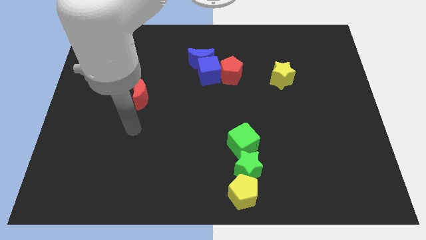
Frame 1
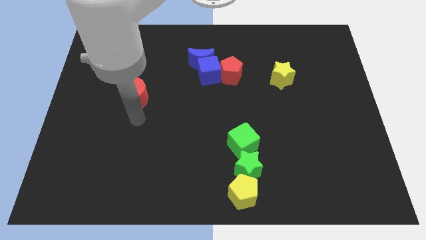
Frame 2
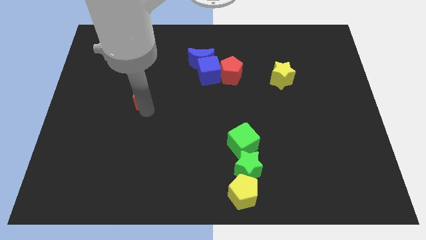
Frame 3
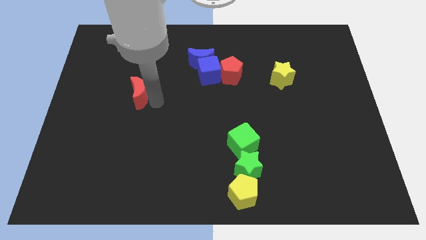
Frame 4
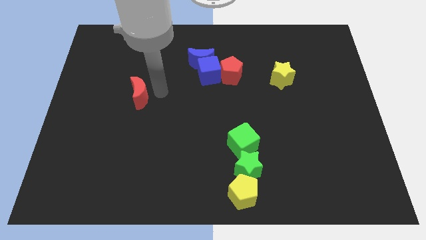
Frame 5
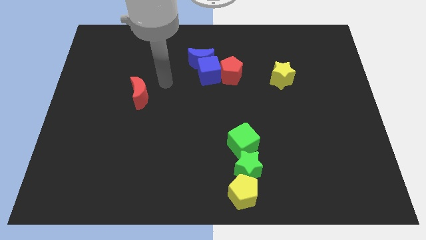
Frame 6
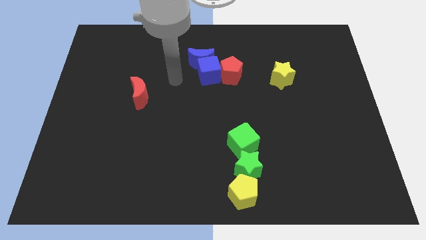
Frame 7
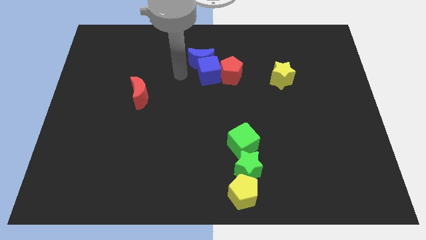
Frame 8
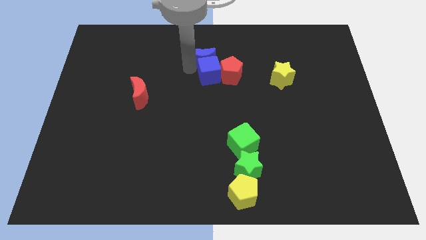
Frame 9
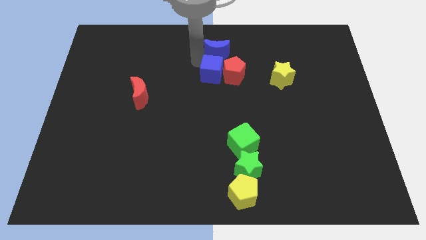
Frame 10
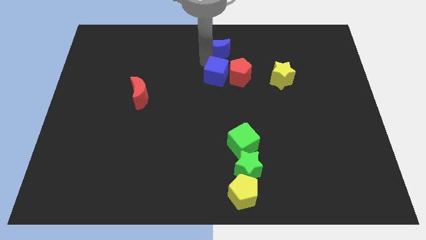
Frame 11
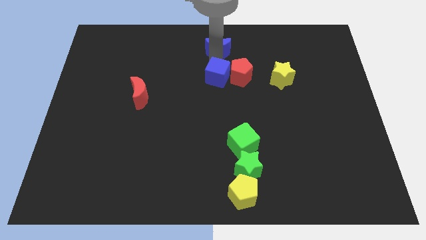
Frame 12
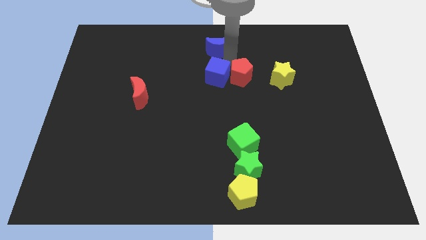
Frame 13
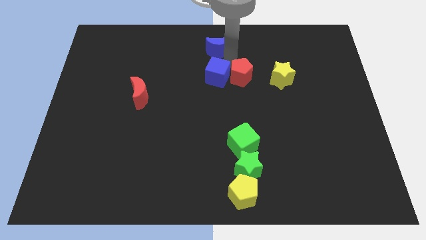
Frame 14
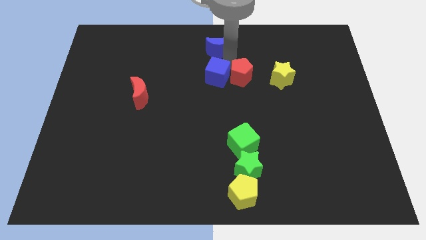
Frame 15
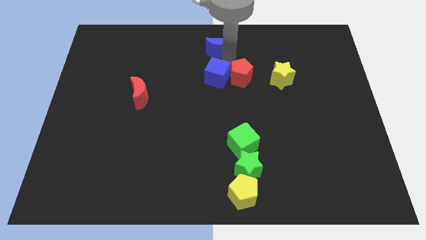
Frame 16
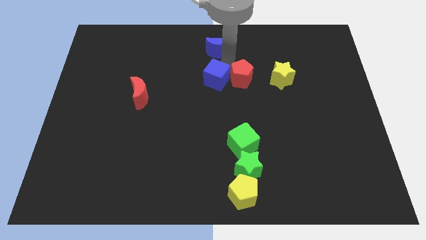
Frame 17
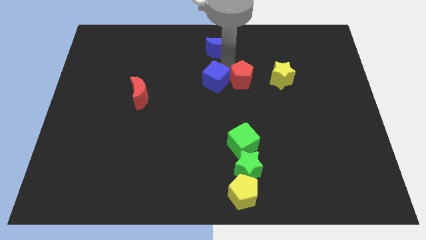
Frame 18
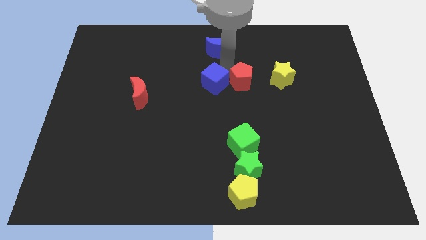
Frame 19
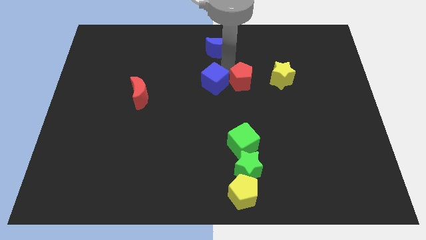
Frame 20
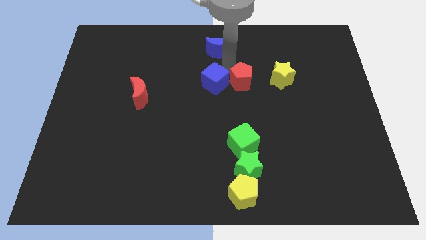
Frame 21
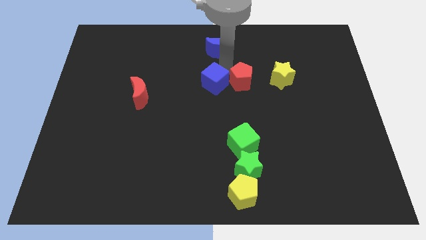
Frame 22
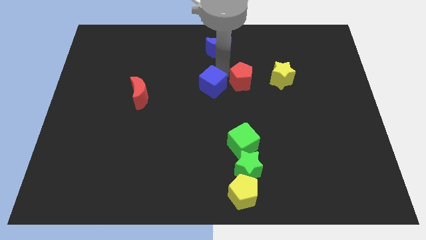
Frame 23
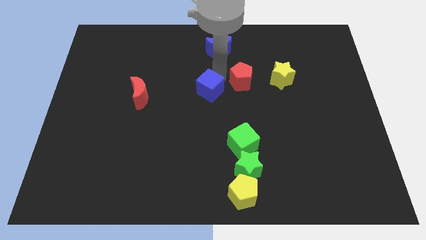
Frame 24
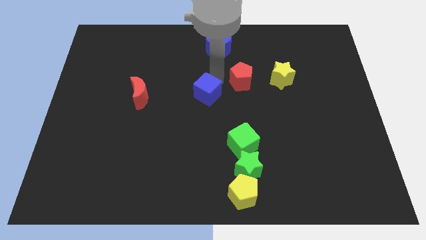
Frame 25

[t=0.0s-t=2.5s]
separate the blue cube from the blue moon and red pentagon

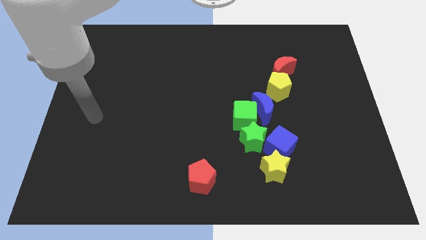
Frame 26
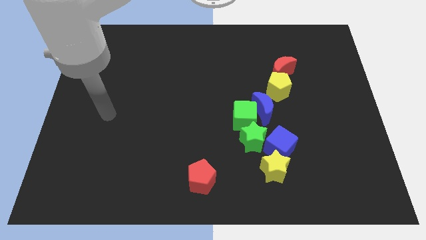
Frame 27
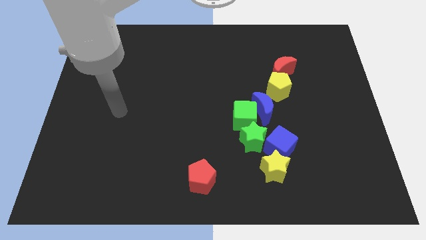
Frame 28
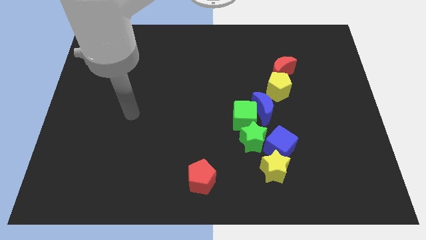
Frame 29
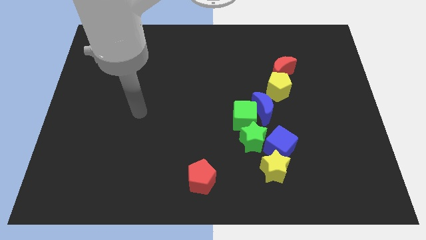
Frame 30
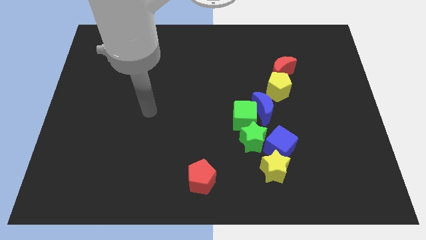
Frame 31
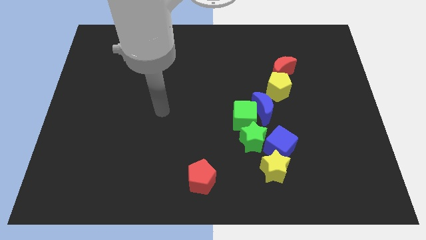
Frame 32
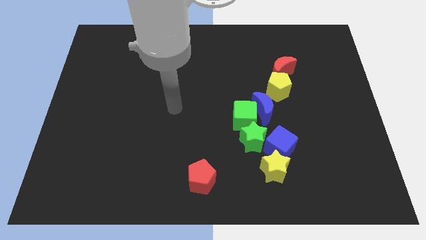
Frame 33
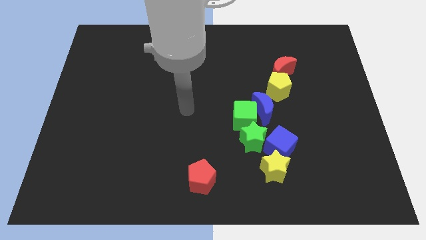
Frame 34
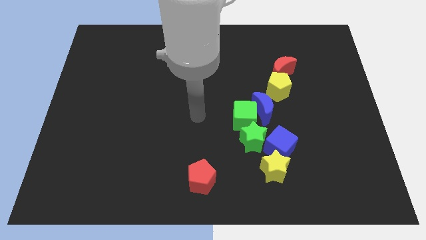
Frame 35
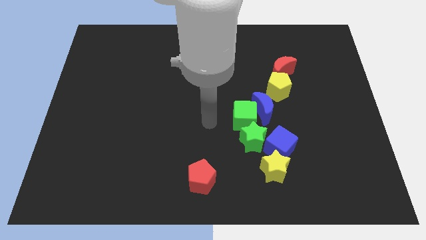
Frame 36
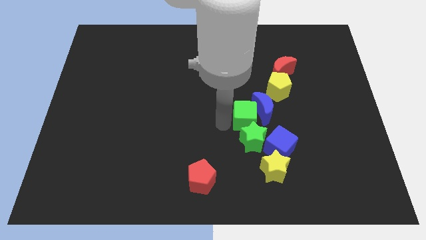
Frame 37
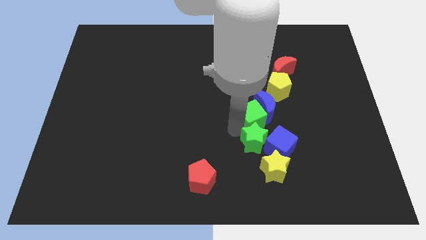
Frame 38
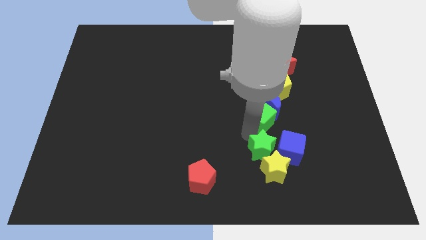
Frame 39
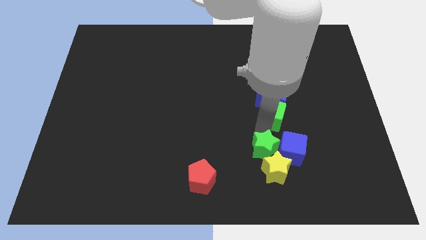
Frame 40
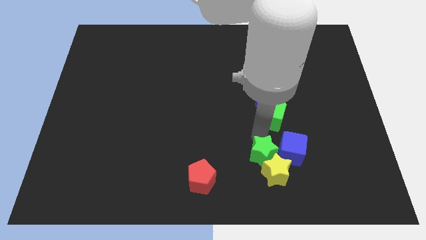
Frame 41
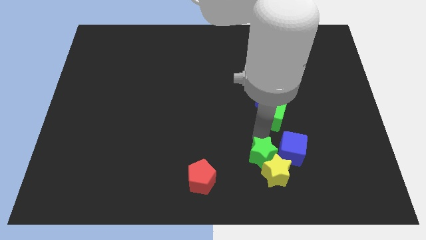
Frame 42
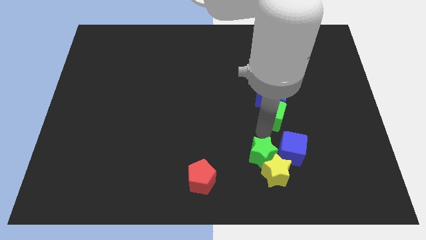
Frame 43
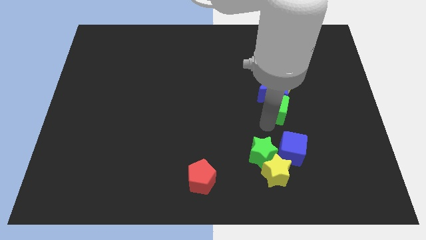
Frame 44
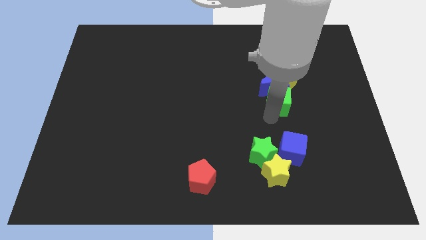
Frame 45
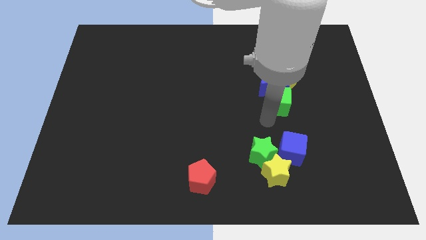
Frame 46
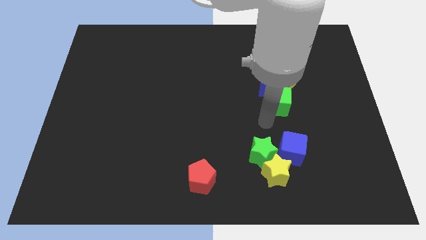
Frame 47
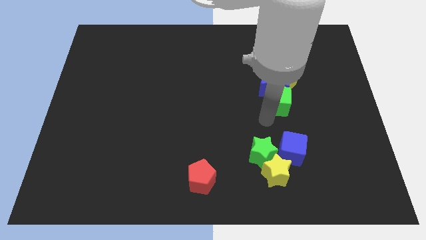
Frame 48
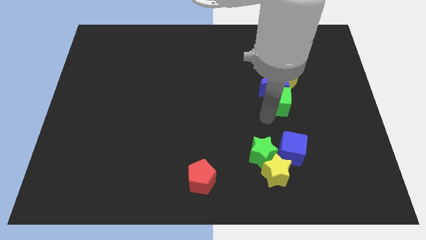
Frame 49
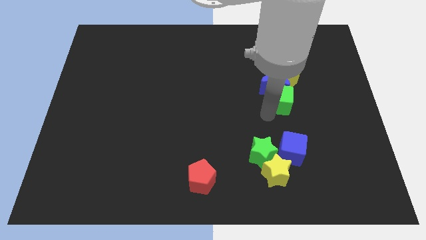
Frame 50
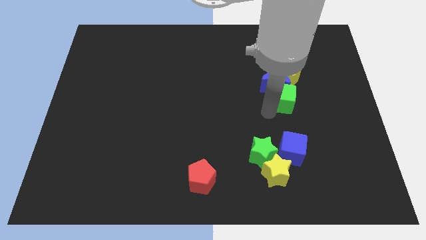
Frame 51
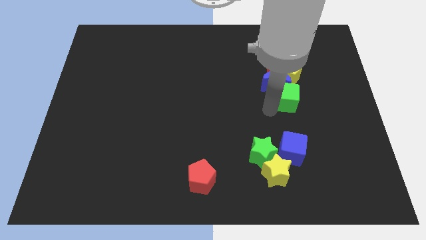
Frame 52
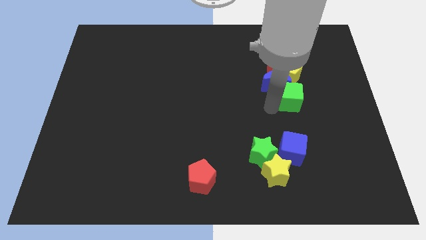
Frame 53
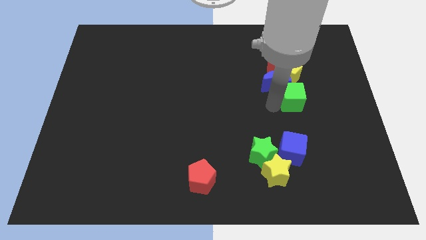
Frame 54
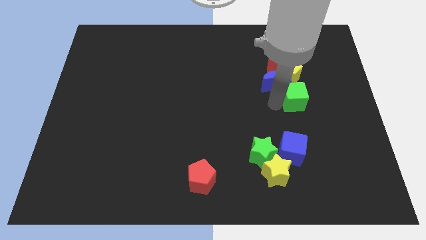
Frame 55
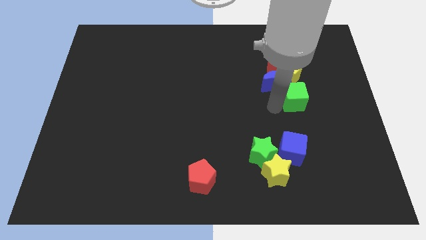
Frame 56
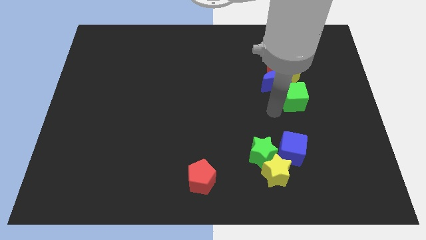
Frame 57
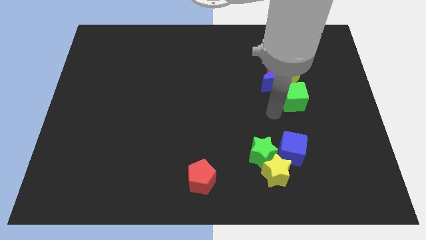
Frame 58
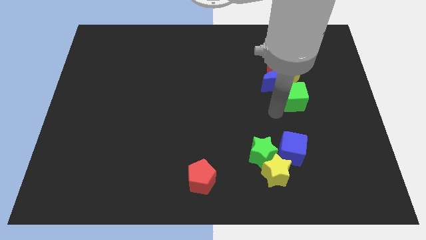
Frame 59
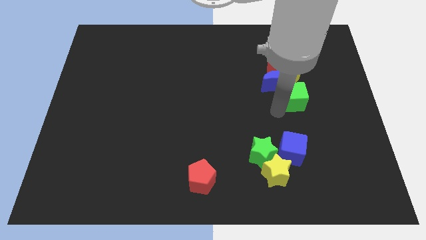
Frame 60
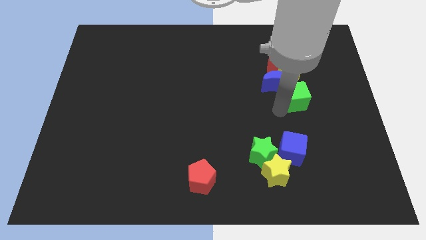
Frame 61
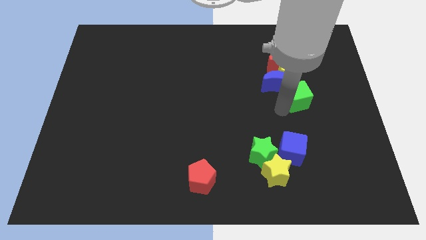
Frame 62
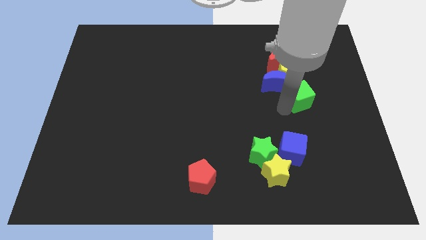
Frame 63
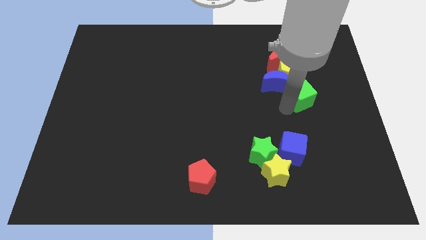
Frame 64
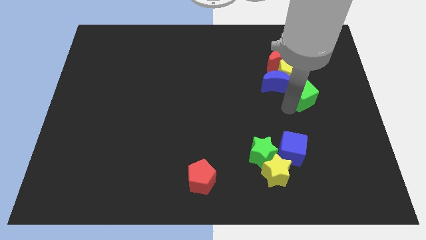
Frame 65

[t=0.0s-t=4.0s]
move the green cube away from the blue moon and green star

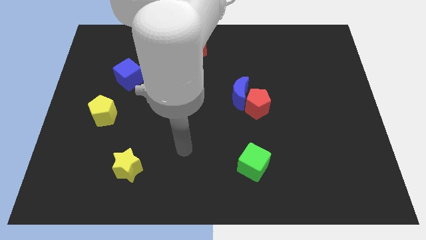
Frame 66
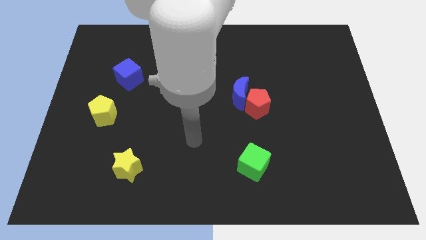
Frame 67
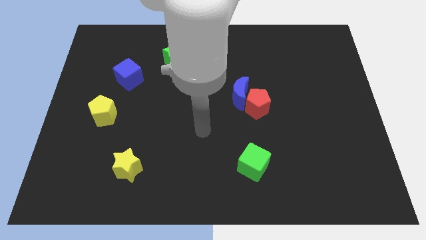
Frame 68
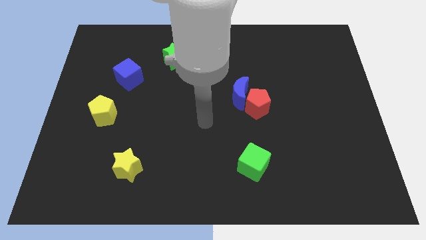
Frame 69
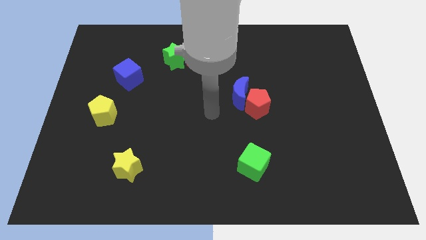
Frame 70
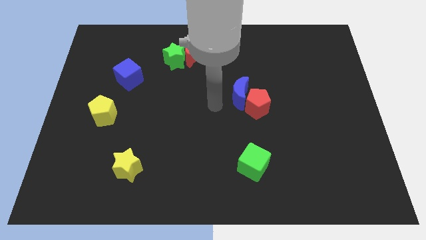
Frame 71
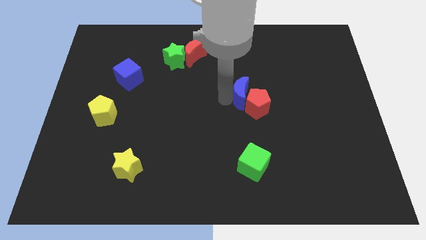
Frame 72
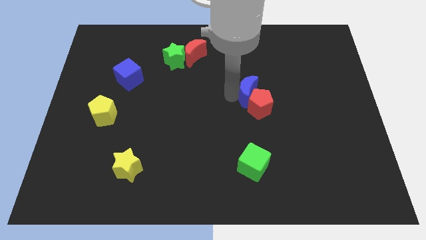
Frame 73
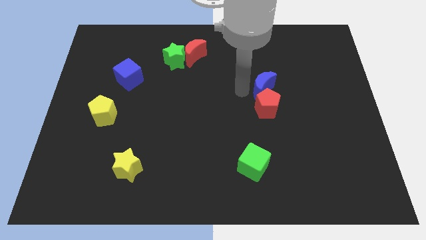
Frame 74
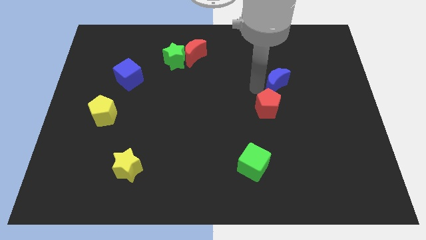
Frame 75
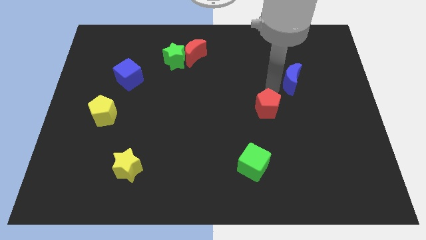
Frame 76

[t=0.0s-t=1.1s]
move the red pentagon away from the blue moon

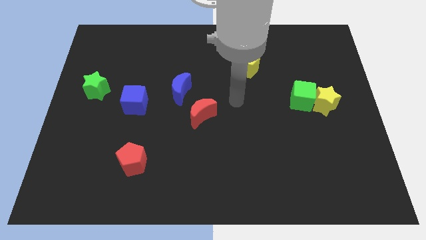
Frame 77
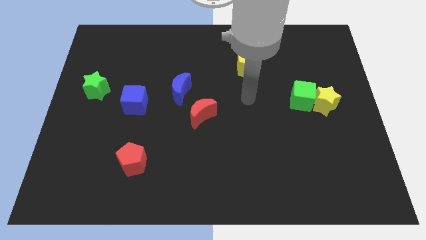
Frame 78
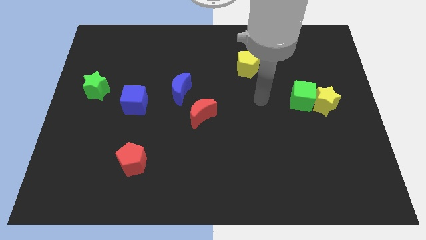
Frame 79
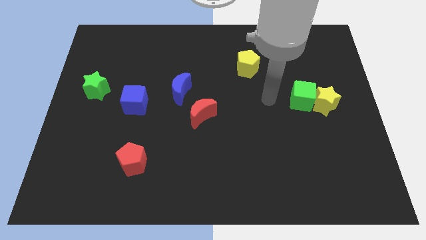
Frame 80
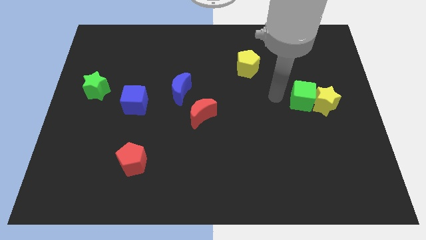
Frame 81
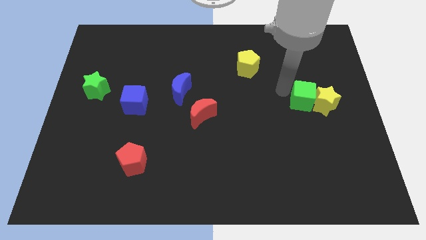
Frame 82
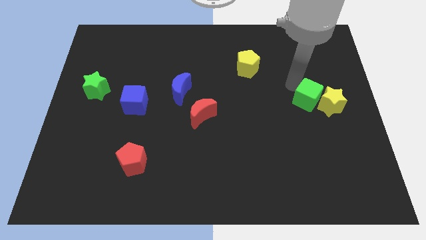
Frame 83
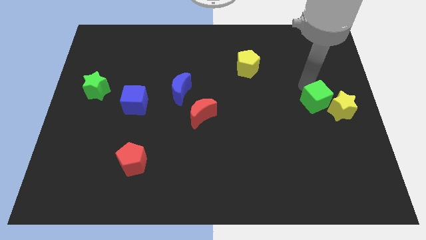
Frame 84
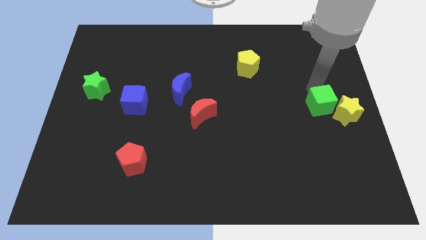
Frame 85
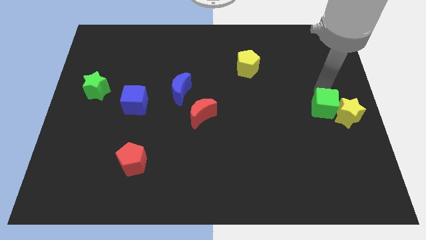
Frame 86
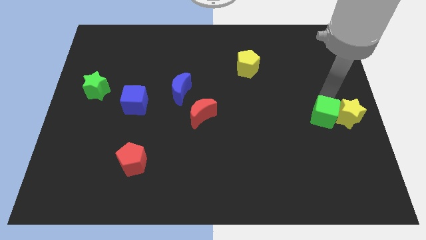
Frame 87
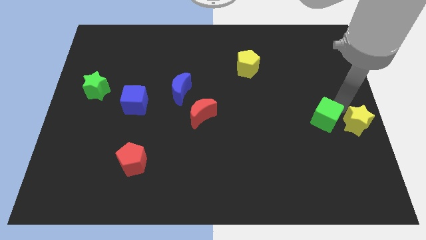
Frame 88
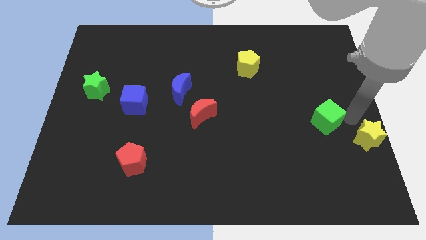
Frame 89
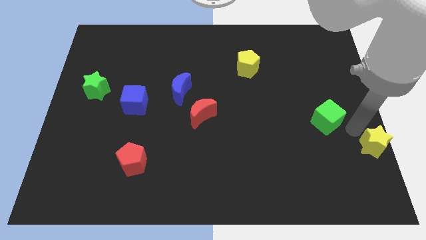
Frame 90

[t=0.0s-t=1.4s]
pull the green cube apart from the yellow star

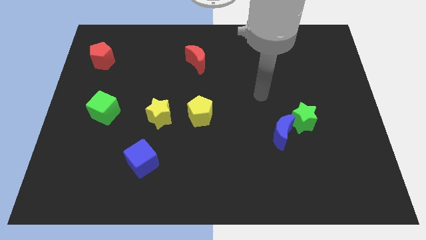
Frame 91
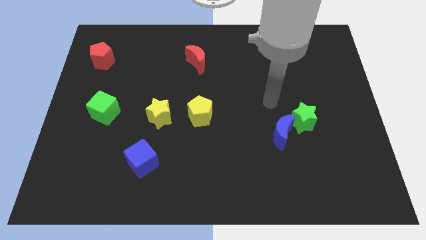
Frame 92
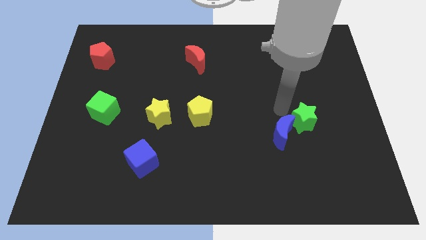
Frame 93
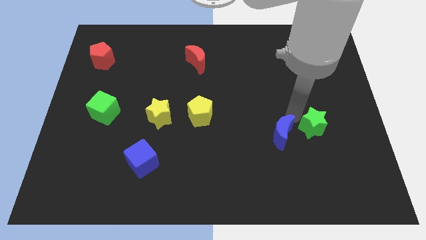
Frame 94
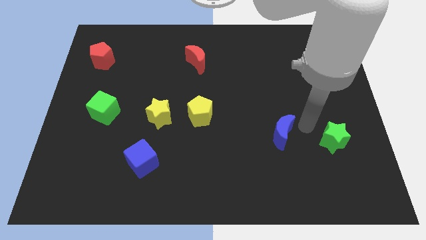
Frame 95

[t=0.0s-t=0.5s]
separate the blue moon from the green star
